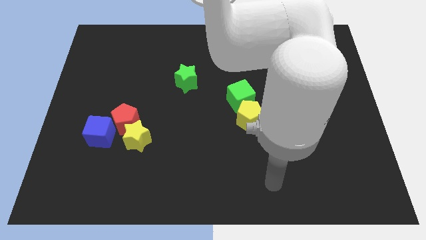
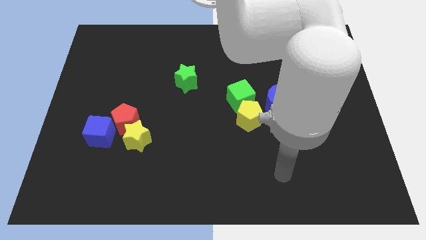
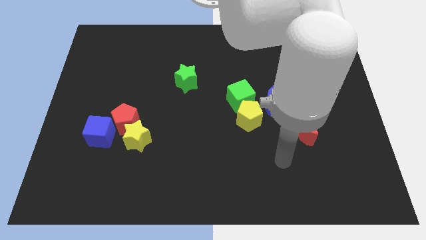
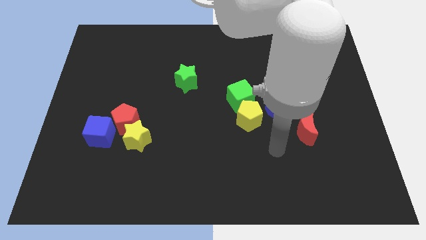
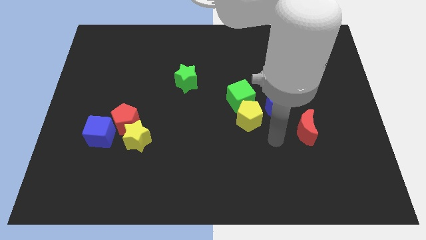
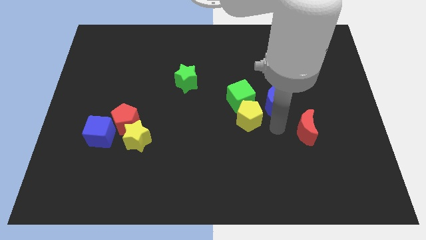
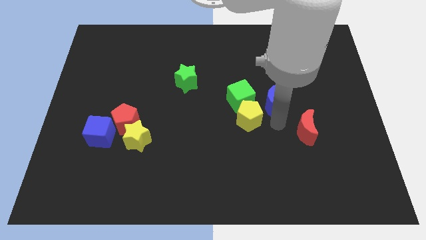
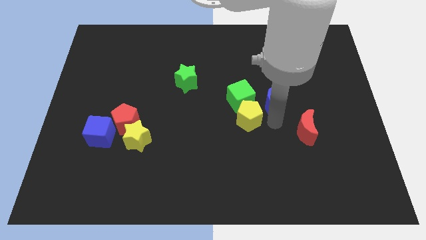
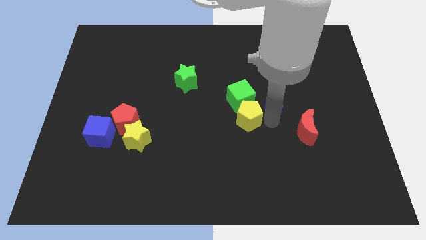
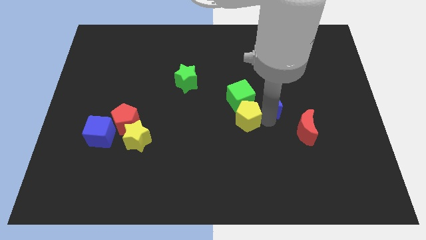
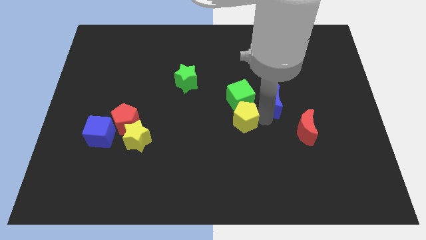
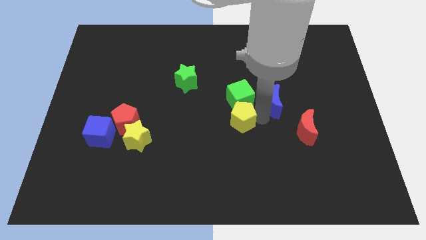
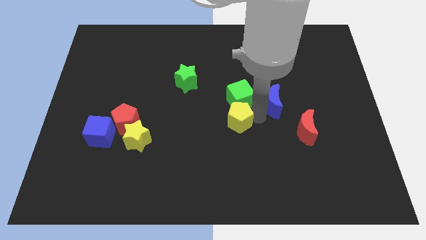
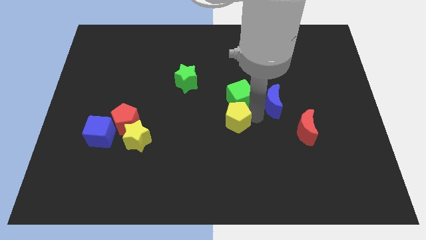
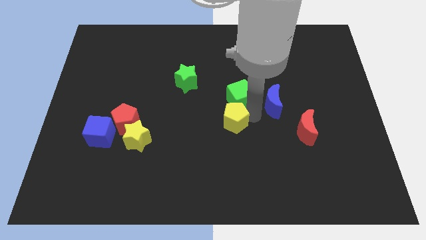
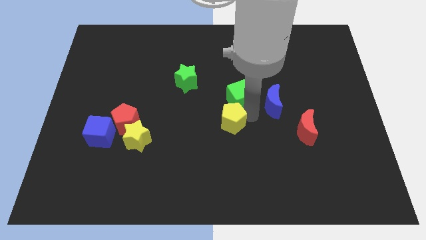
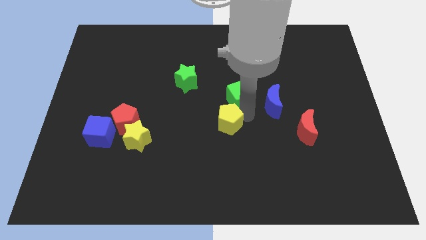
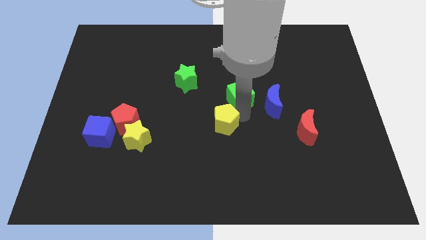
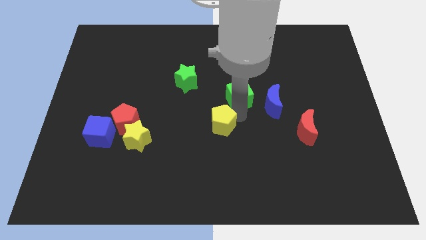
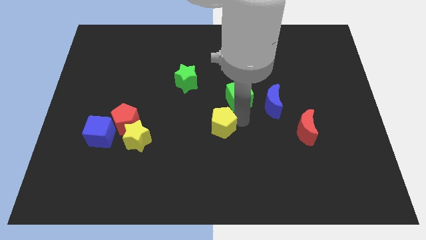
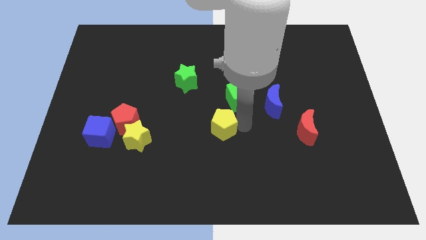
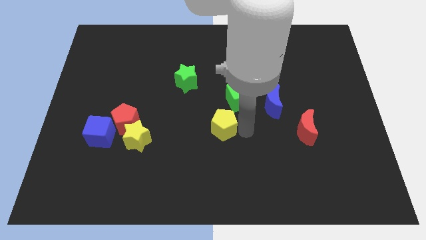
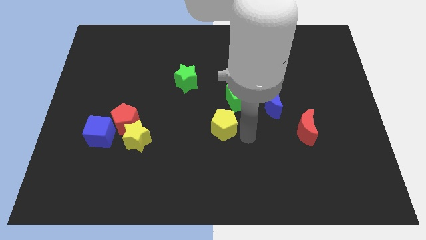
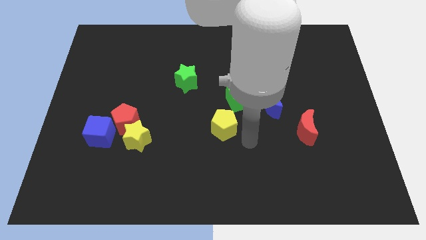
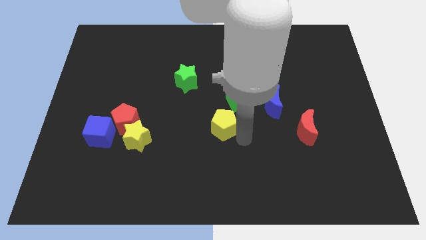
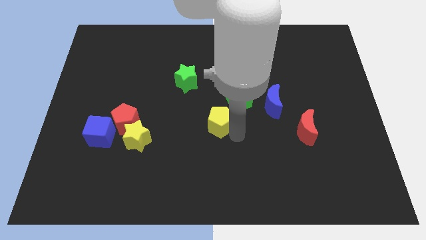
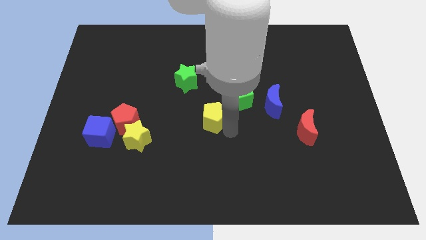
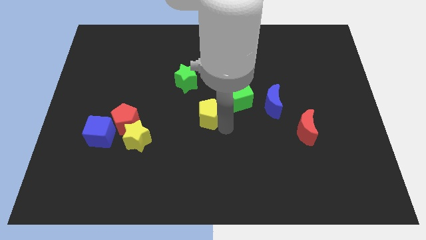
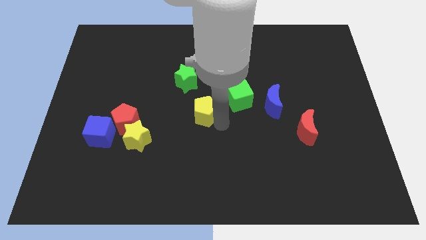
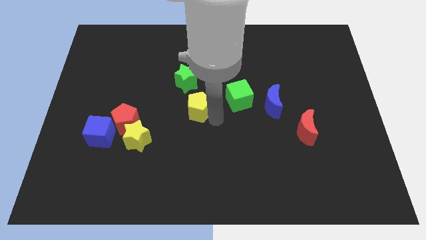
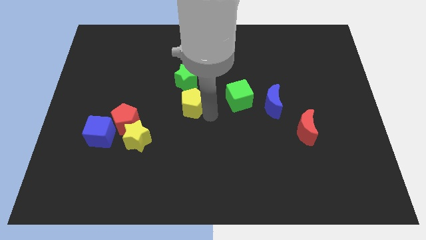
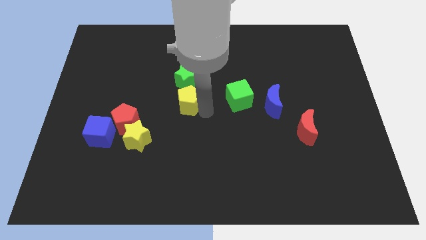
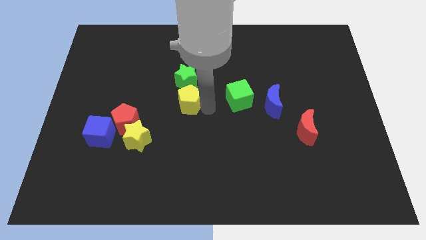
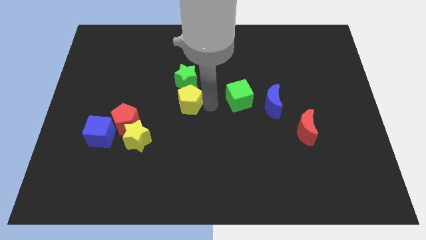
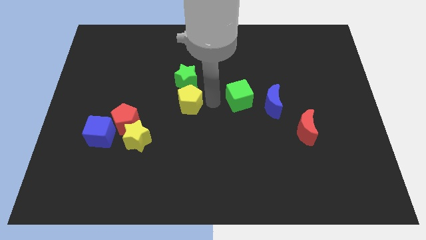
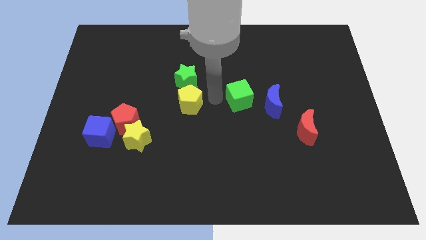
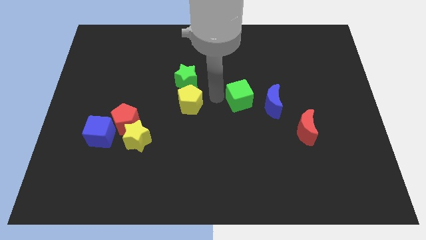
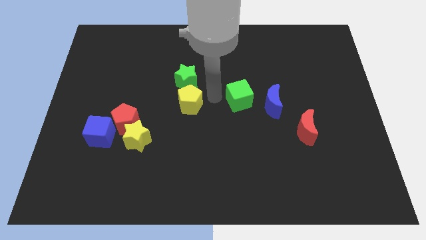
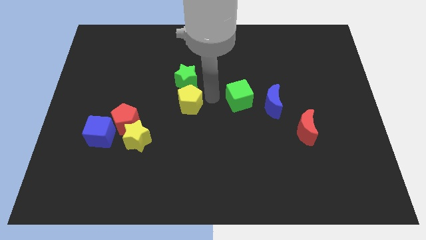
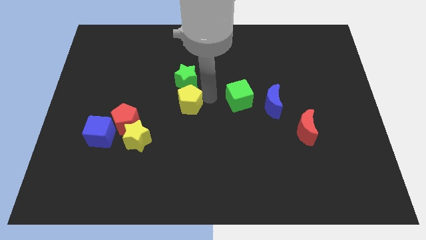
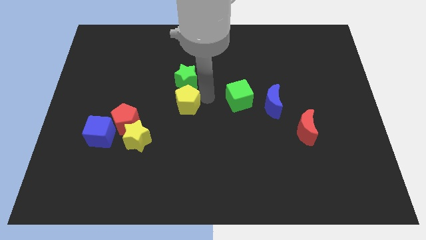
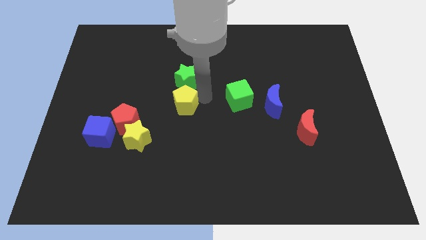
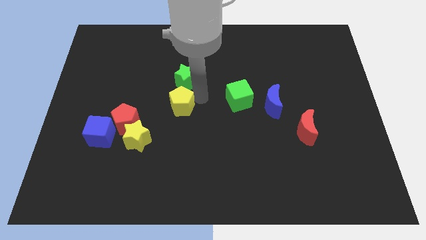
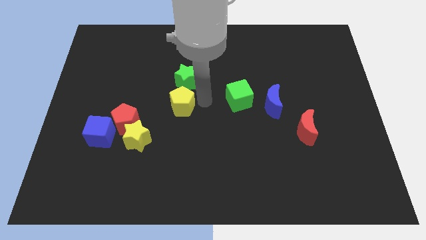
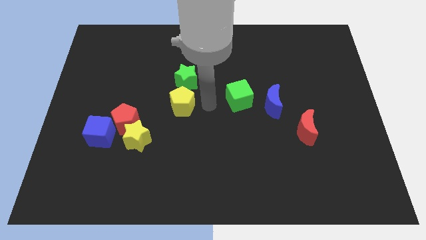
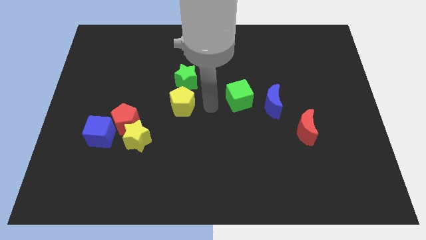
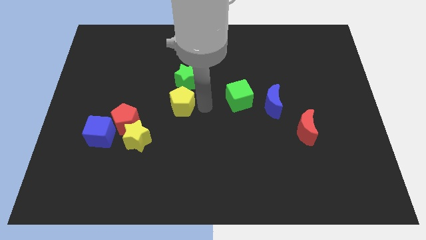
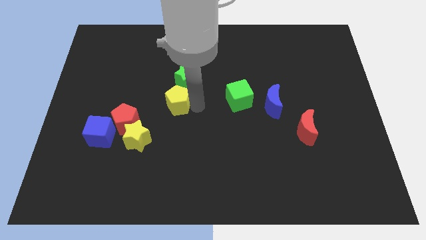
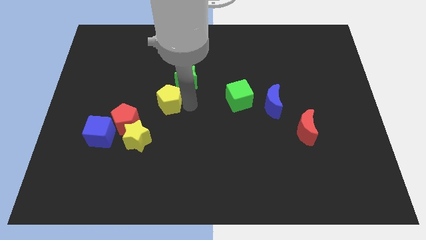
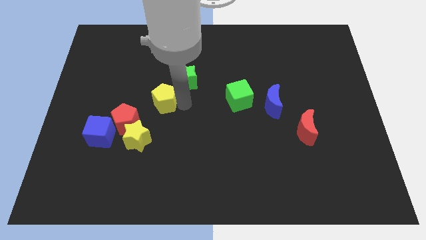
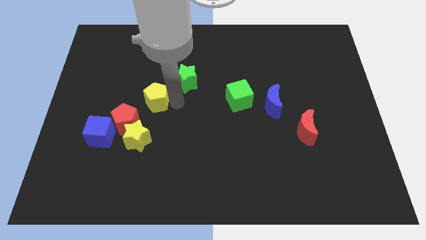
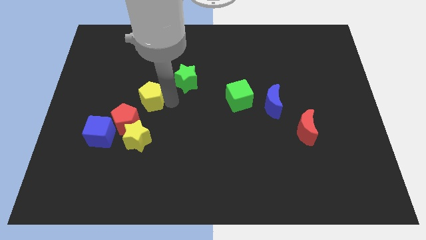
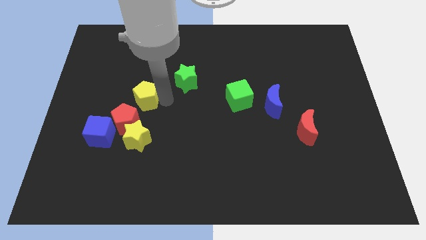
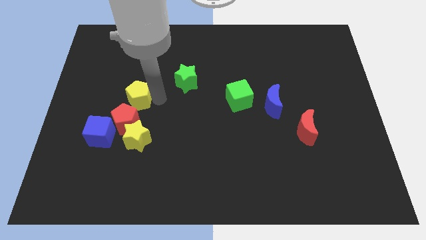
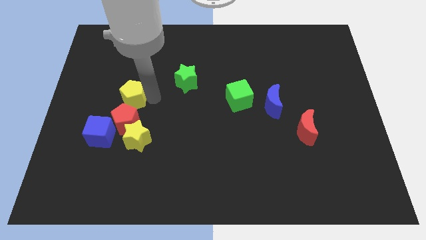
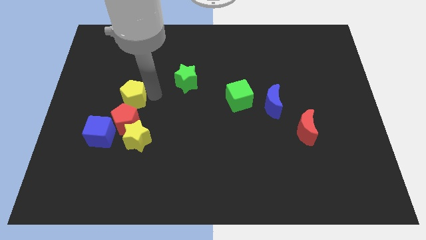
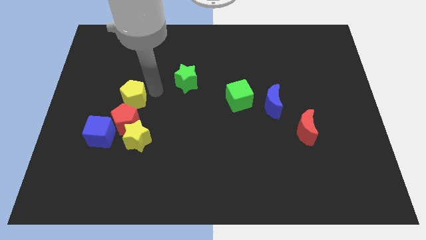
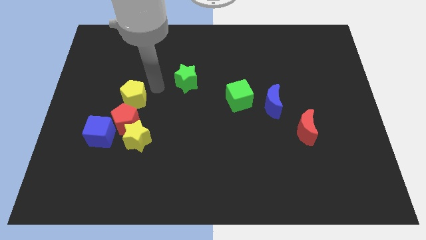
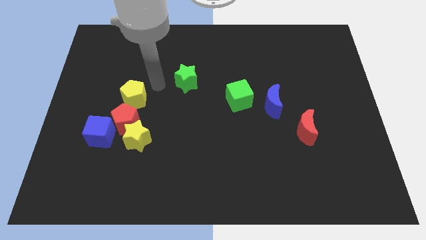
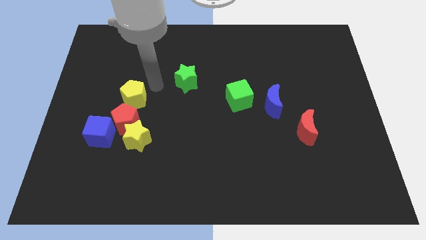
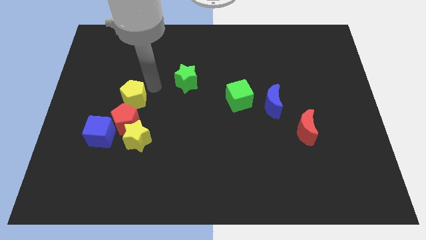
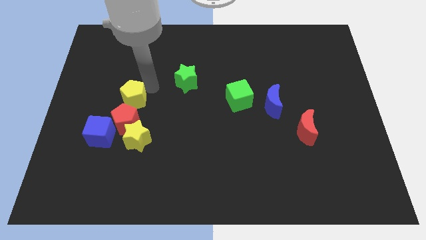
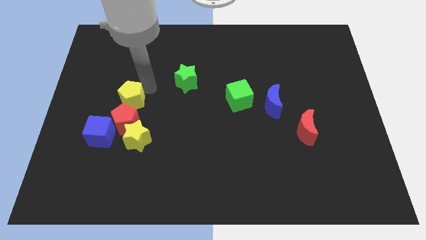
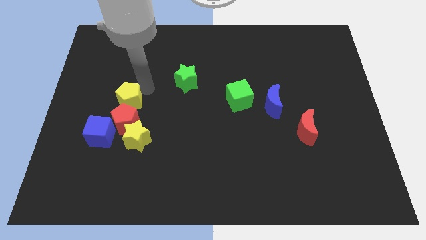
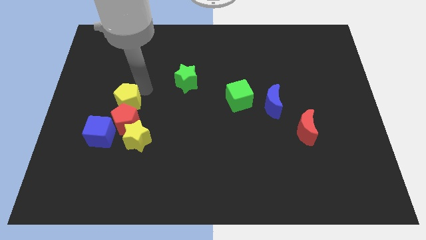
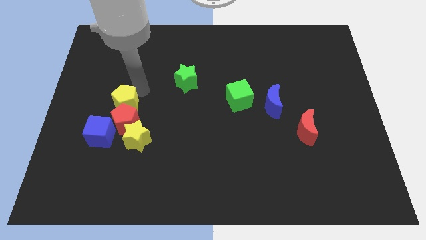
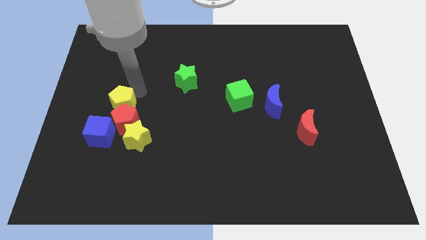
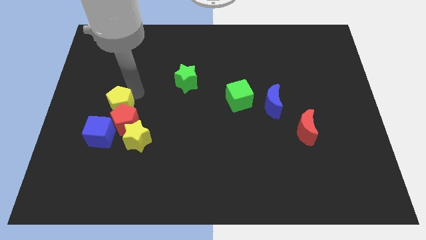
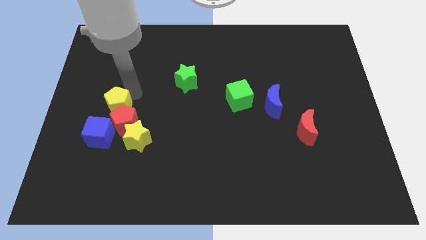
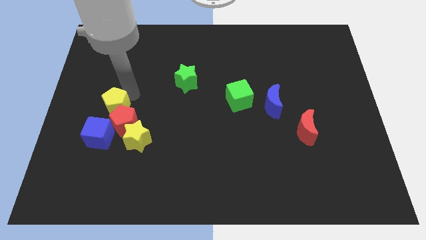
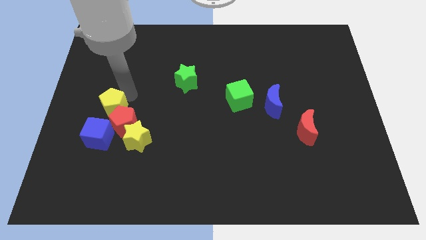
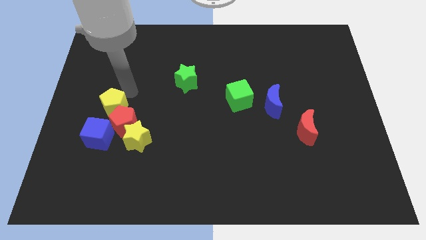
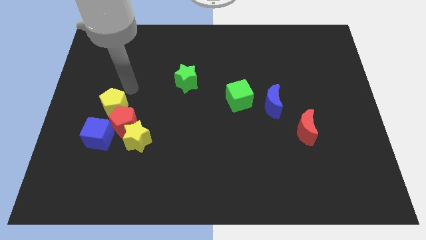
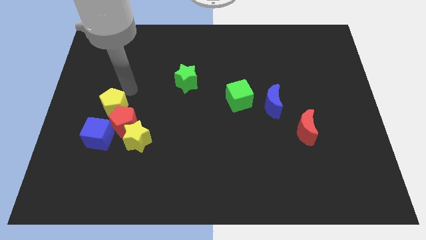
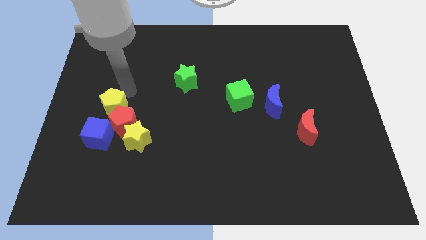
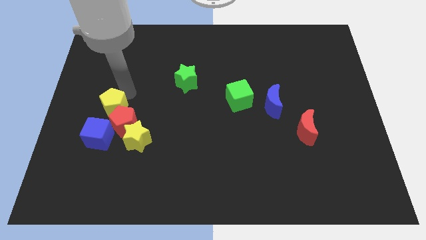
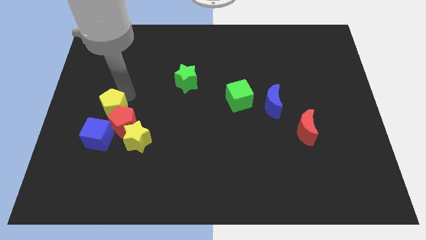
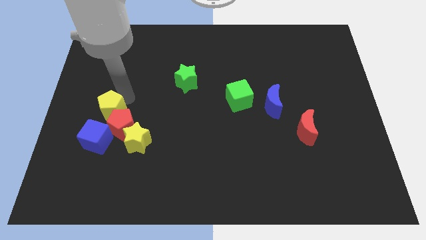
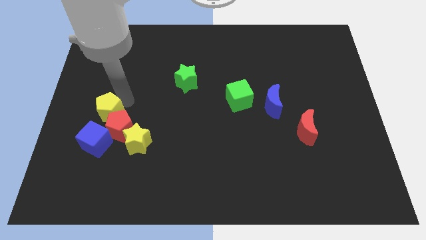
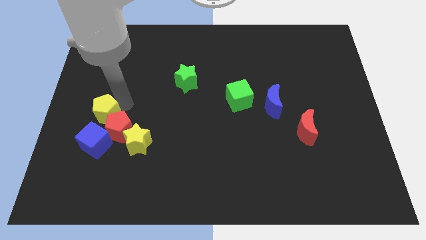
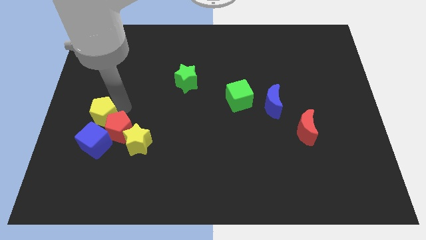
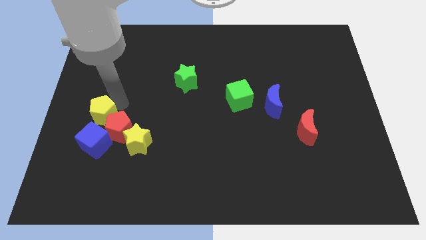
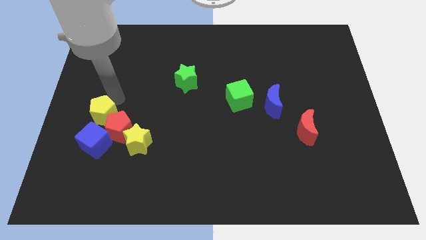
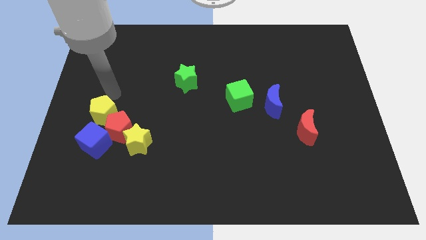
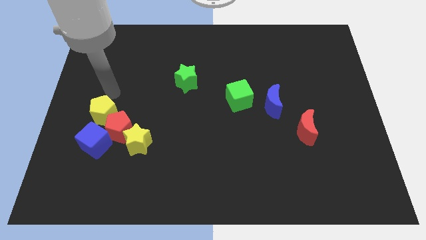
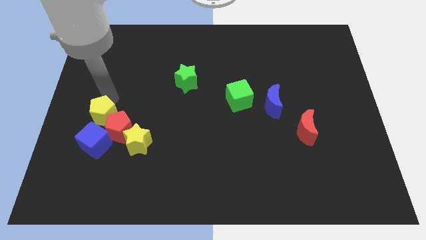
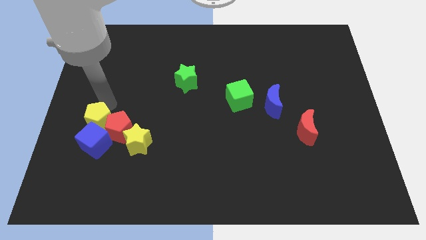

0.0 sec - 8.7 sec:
put the yellow pentagon close to the blue cube
